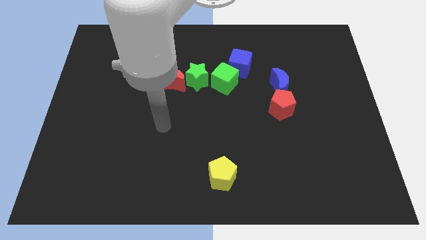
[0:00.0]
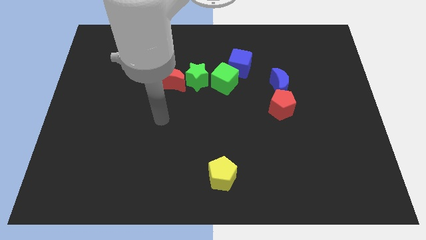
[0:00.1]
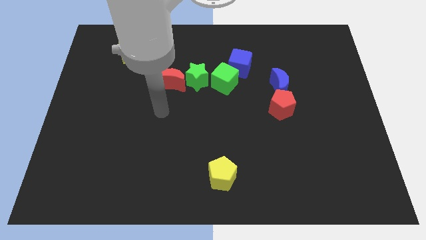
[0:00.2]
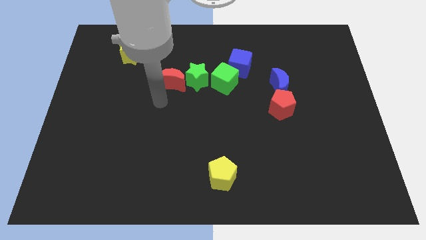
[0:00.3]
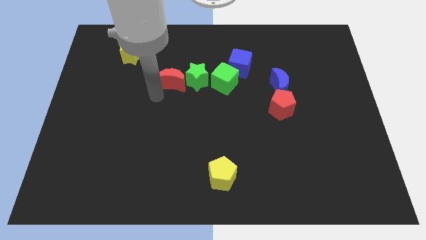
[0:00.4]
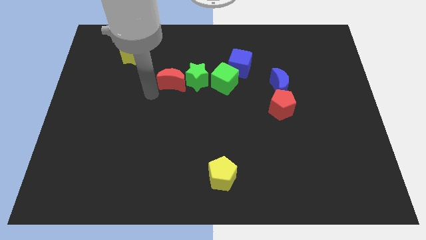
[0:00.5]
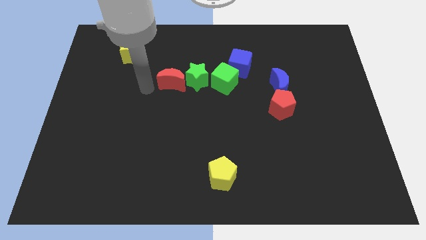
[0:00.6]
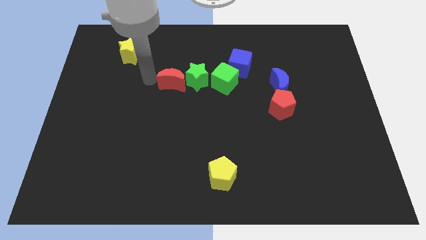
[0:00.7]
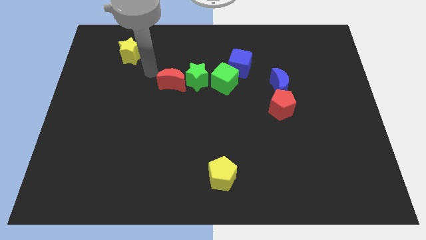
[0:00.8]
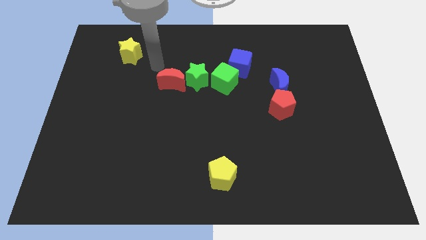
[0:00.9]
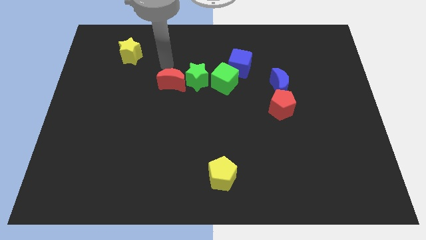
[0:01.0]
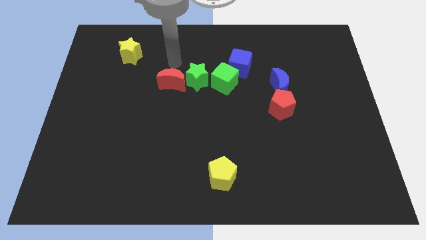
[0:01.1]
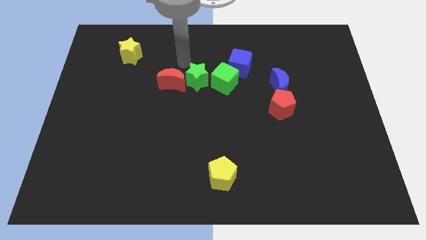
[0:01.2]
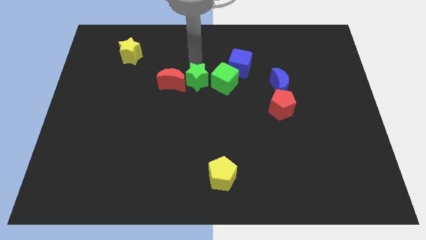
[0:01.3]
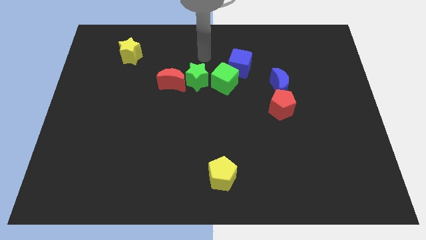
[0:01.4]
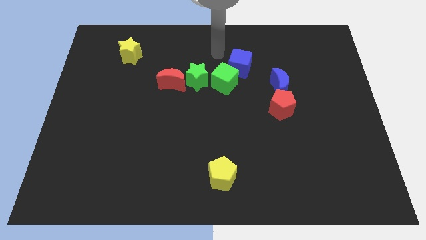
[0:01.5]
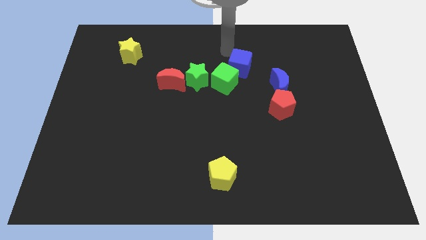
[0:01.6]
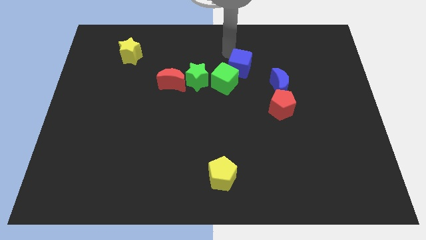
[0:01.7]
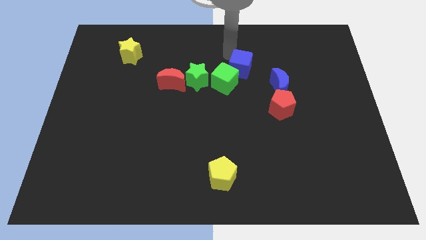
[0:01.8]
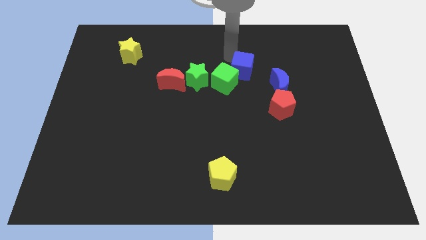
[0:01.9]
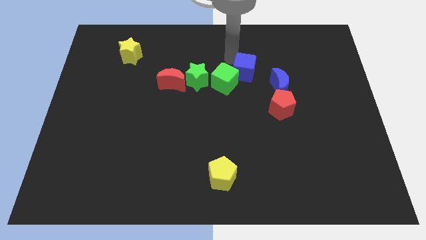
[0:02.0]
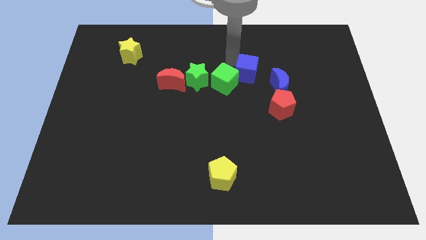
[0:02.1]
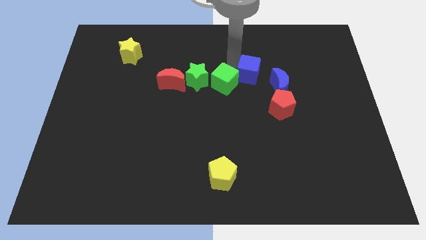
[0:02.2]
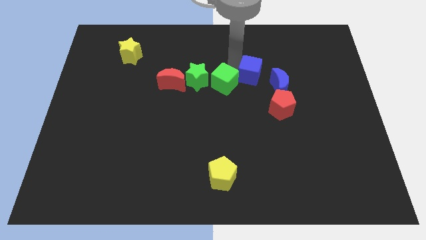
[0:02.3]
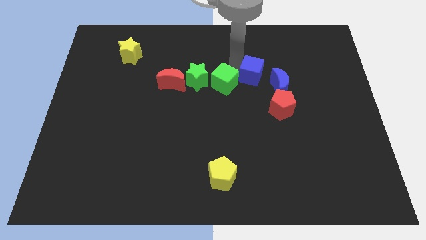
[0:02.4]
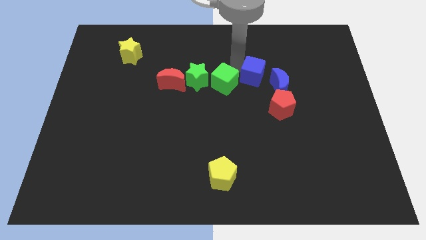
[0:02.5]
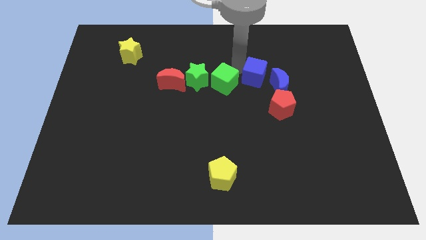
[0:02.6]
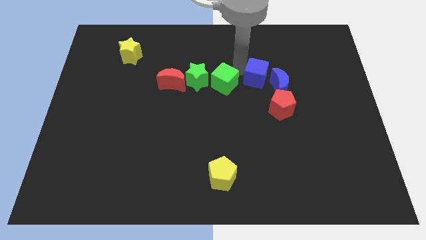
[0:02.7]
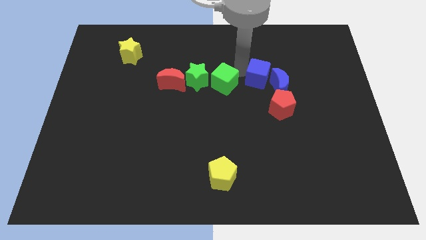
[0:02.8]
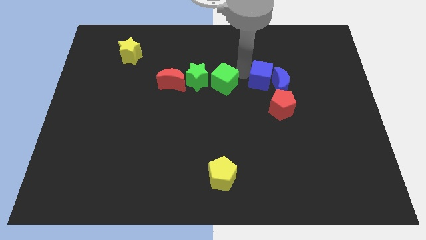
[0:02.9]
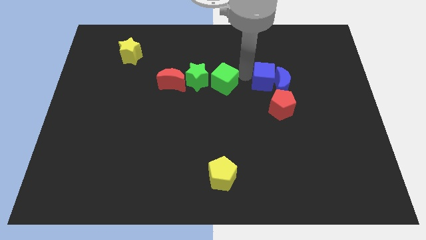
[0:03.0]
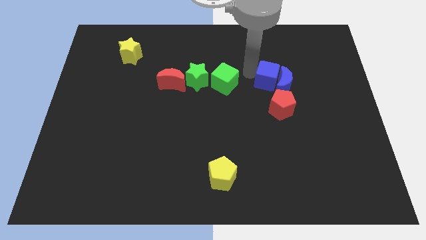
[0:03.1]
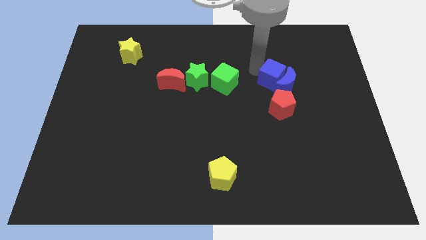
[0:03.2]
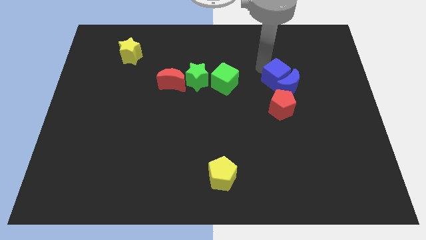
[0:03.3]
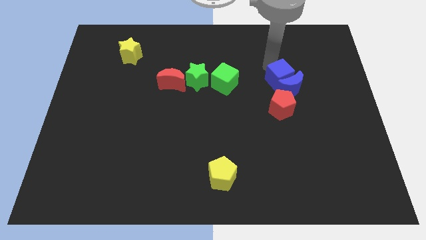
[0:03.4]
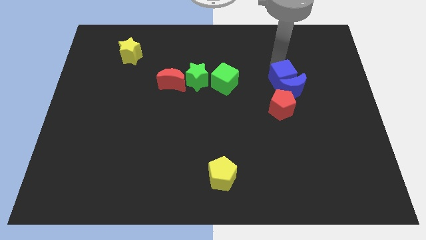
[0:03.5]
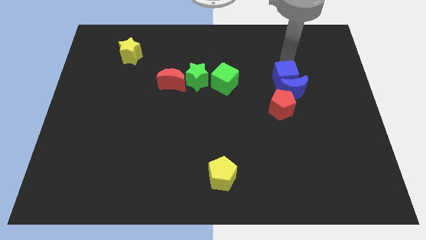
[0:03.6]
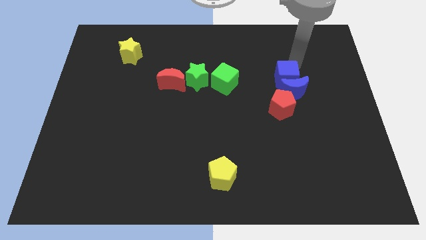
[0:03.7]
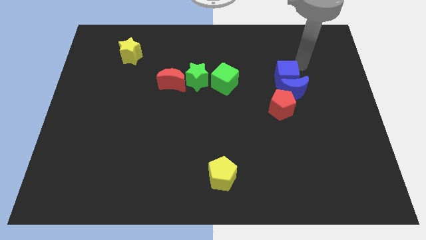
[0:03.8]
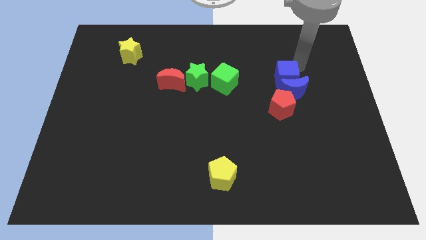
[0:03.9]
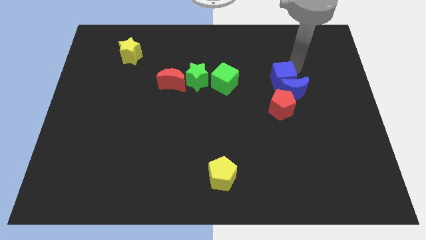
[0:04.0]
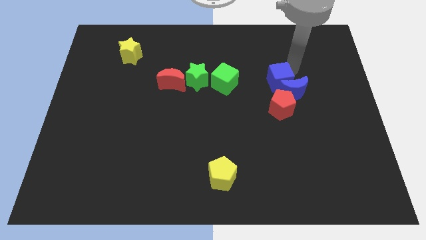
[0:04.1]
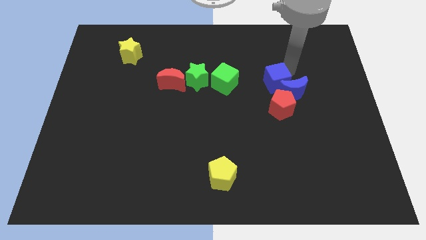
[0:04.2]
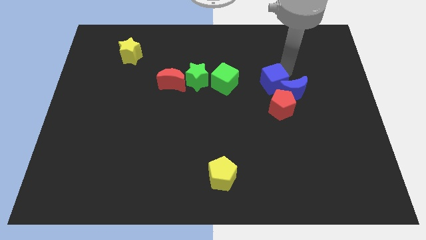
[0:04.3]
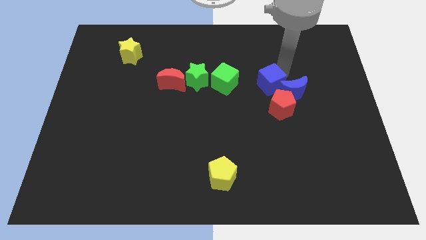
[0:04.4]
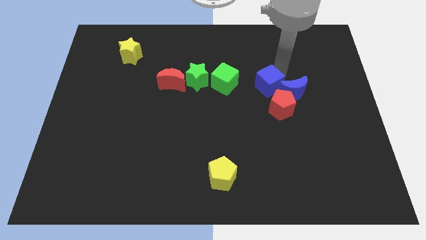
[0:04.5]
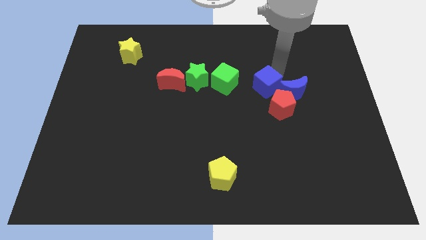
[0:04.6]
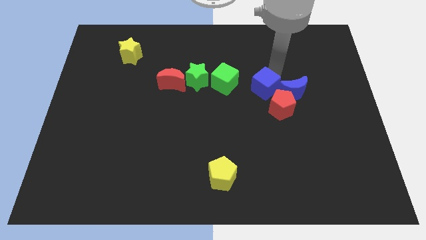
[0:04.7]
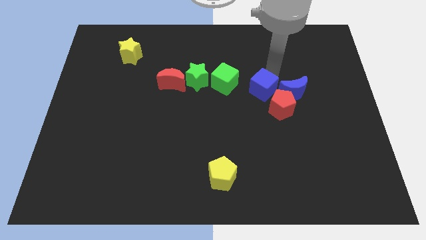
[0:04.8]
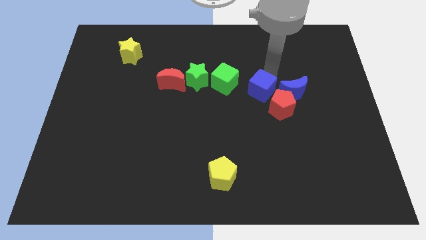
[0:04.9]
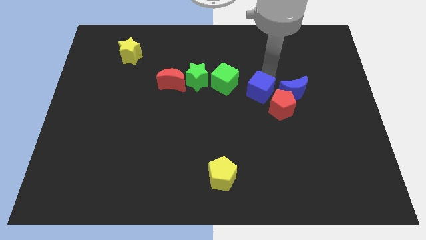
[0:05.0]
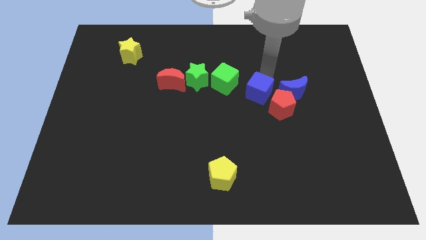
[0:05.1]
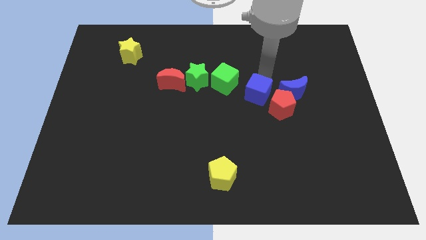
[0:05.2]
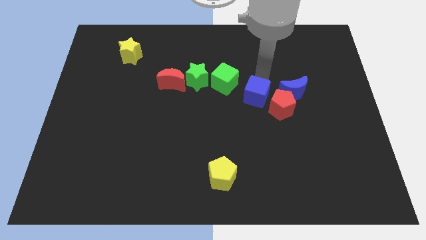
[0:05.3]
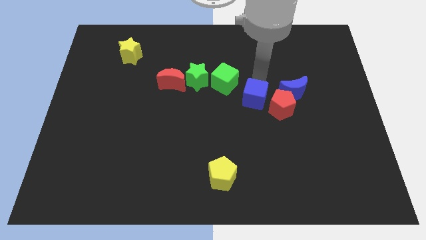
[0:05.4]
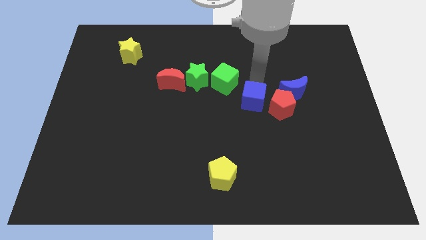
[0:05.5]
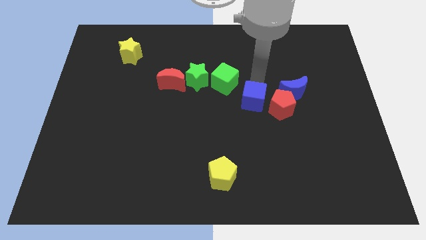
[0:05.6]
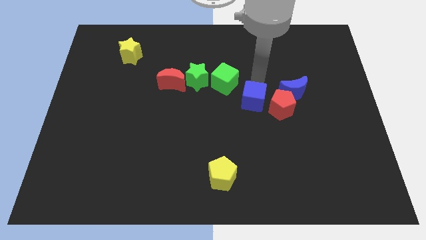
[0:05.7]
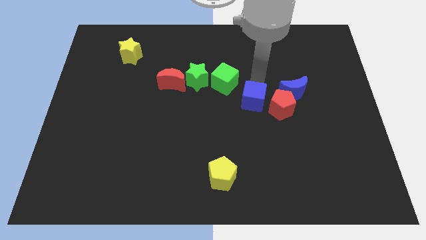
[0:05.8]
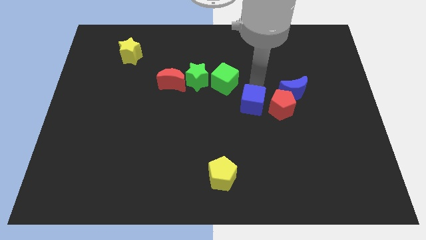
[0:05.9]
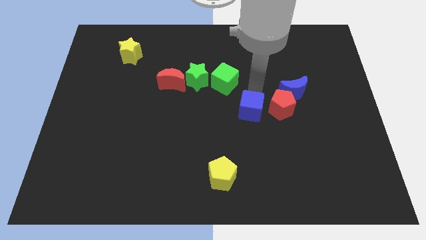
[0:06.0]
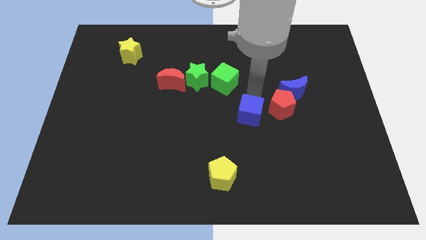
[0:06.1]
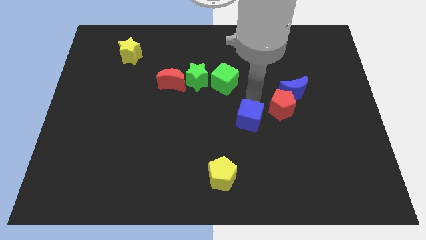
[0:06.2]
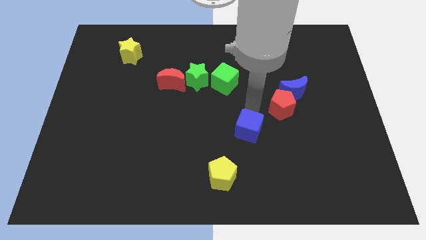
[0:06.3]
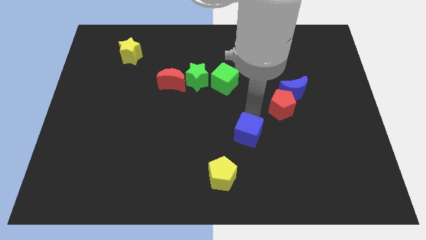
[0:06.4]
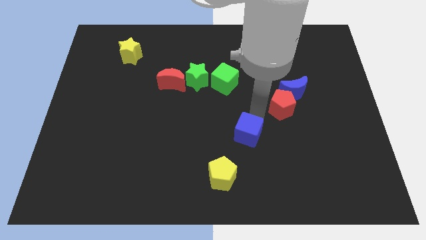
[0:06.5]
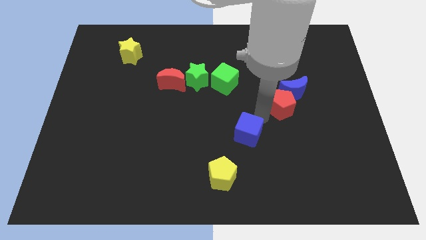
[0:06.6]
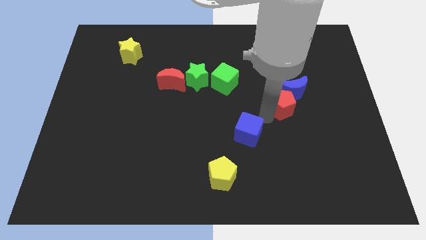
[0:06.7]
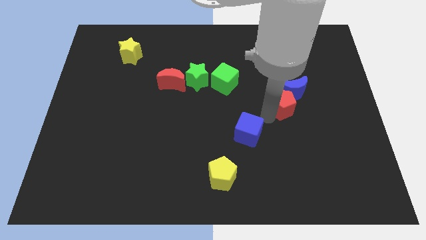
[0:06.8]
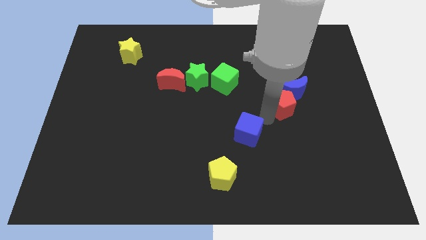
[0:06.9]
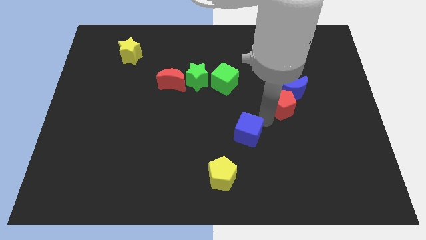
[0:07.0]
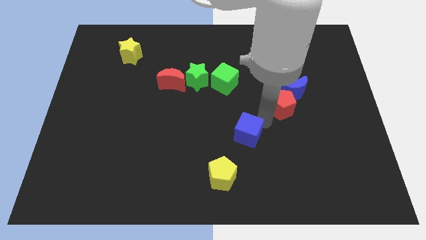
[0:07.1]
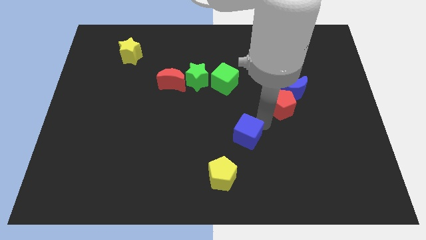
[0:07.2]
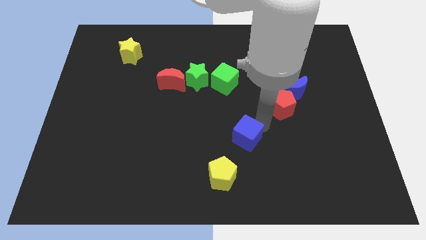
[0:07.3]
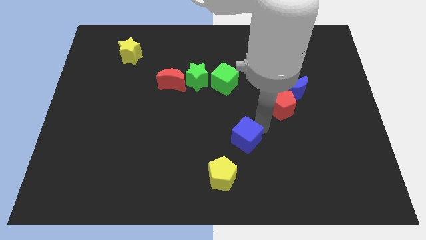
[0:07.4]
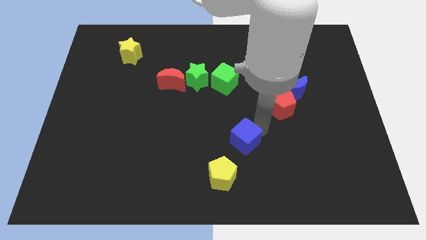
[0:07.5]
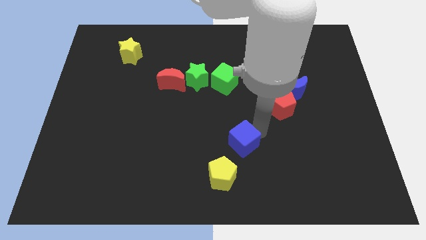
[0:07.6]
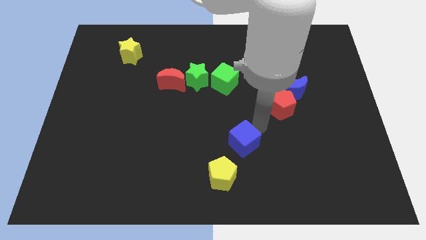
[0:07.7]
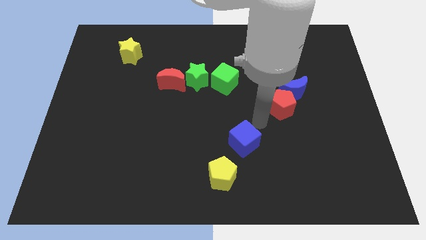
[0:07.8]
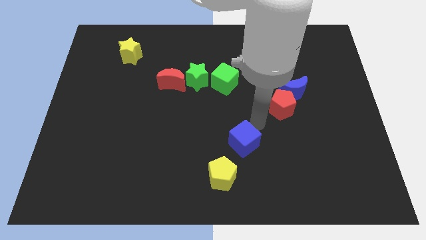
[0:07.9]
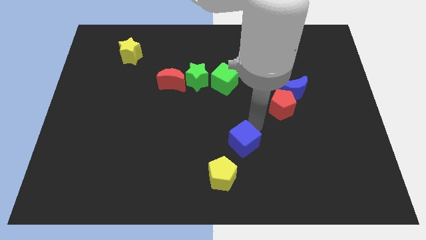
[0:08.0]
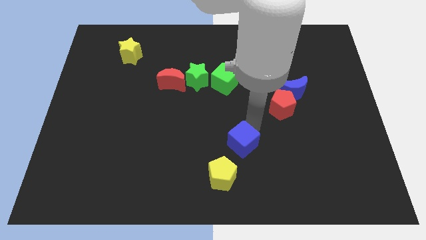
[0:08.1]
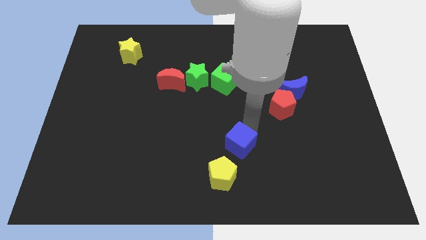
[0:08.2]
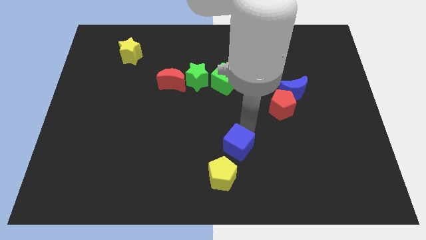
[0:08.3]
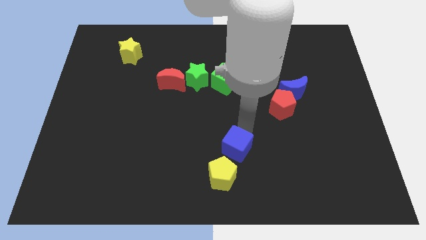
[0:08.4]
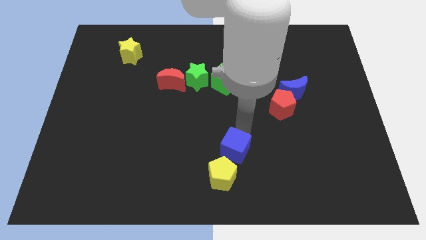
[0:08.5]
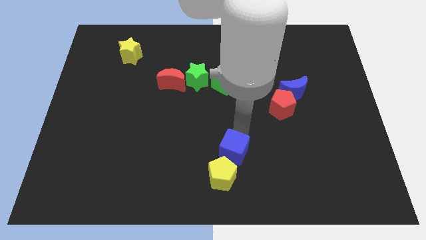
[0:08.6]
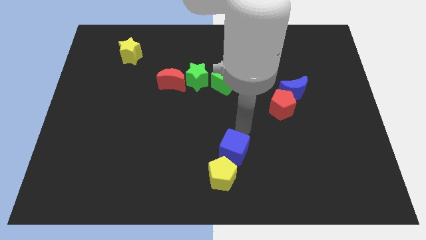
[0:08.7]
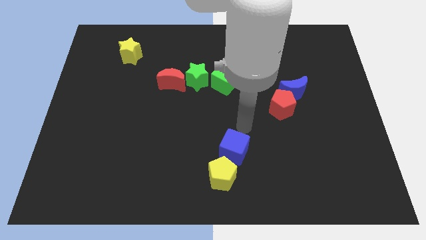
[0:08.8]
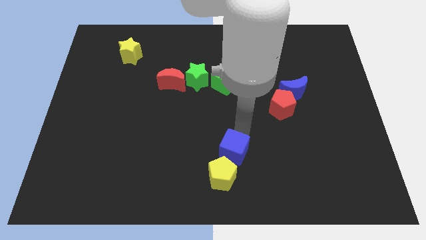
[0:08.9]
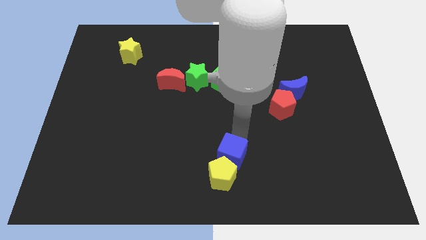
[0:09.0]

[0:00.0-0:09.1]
push the blue cube close to the yellow pentagon
